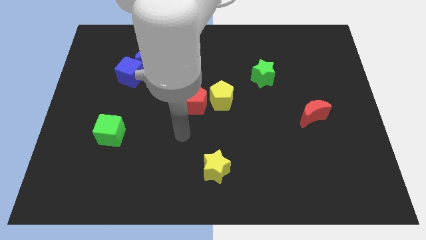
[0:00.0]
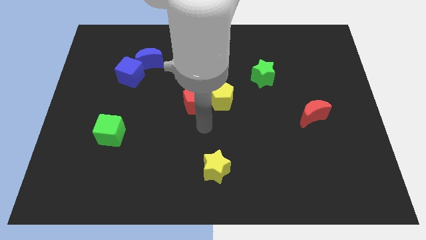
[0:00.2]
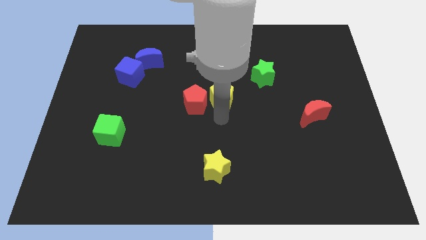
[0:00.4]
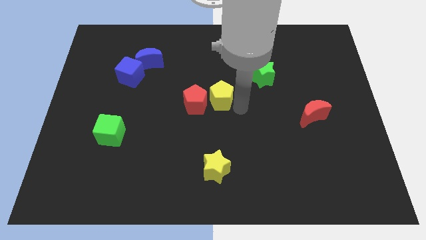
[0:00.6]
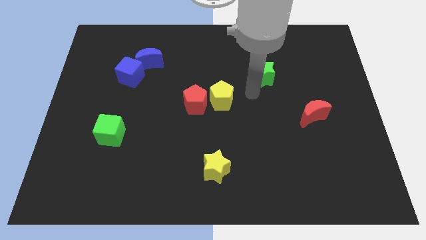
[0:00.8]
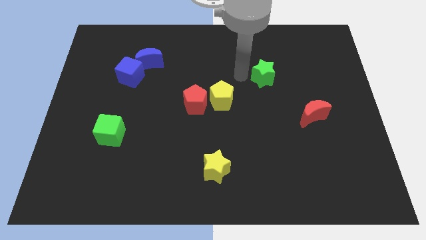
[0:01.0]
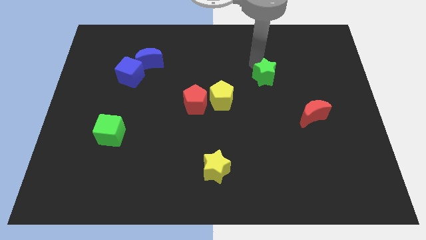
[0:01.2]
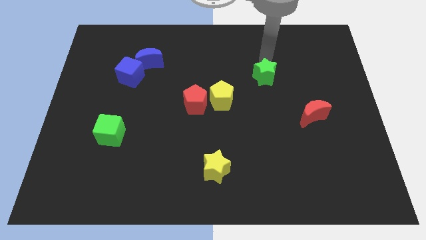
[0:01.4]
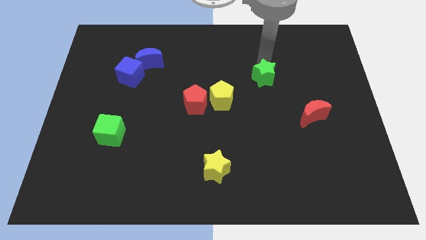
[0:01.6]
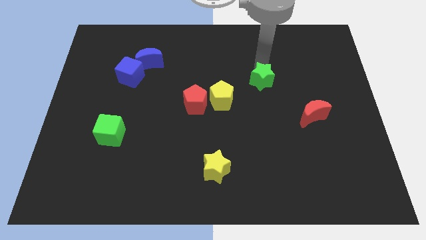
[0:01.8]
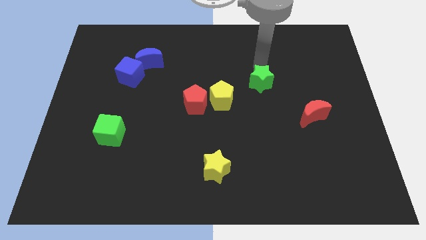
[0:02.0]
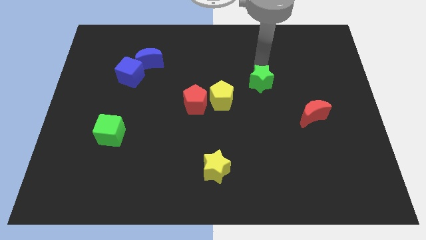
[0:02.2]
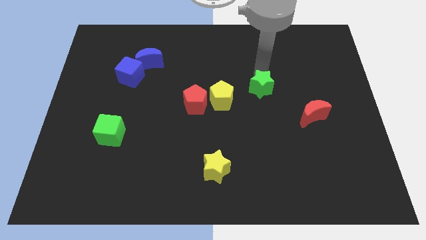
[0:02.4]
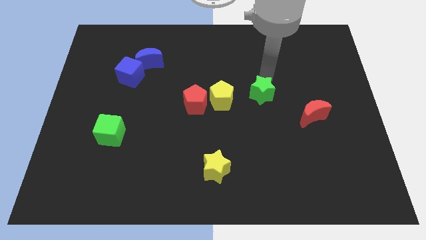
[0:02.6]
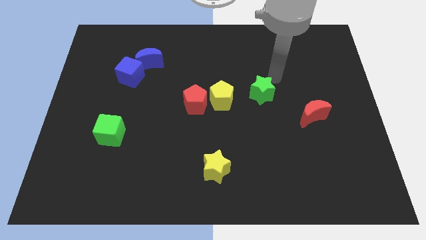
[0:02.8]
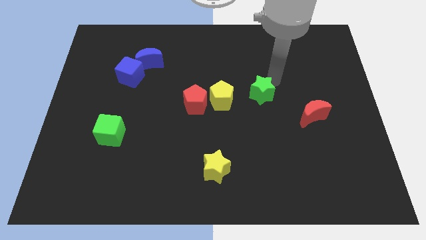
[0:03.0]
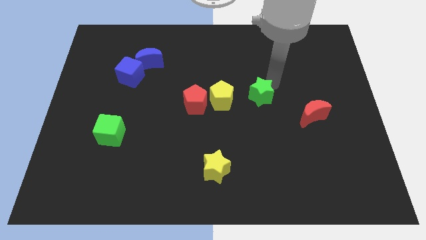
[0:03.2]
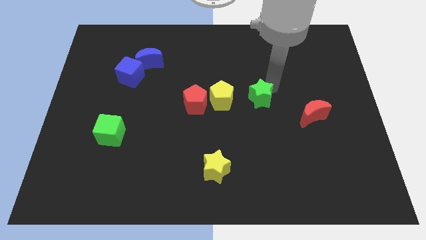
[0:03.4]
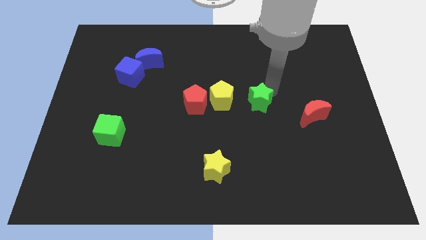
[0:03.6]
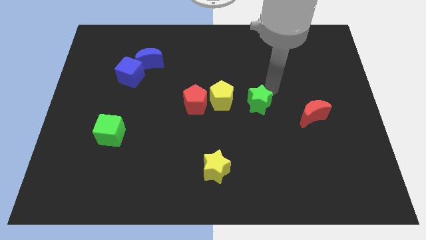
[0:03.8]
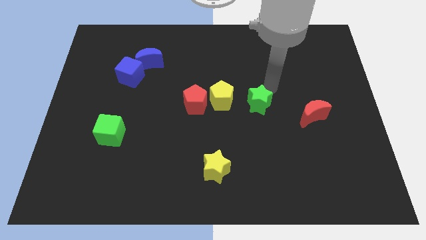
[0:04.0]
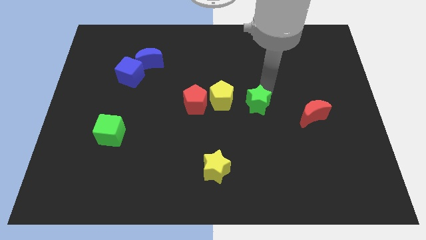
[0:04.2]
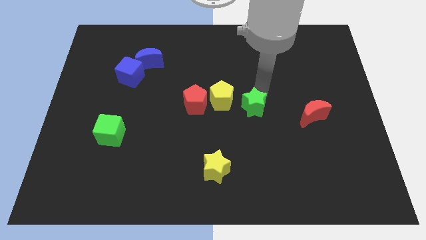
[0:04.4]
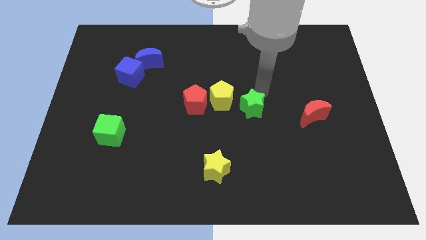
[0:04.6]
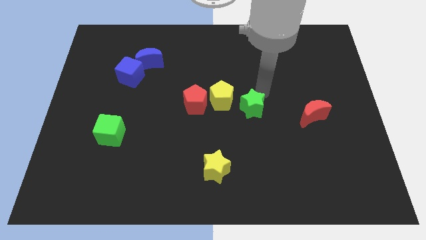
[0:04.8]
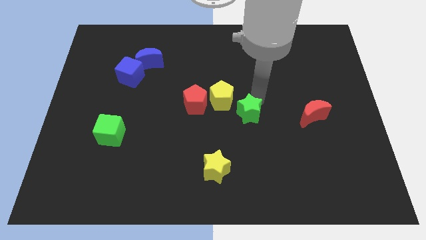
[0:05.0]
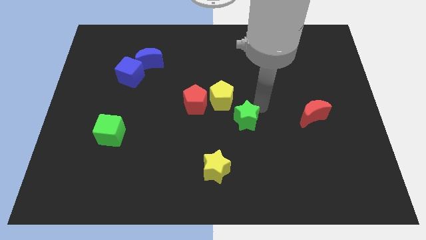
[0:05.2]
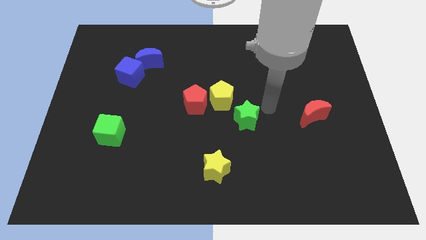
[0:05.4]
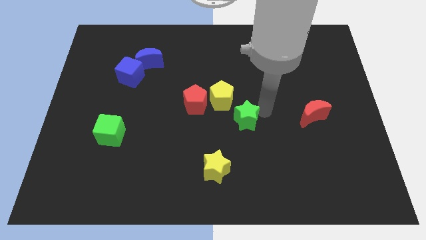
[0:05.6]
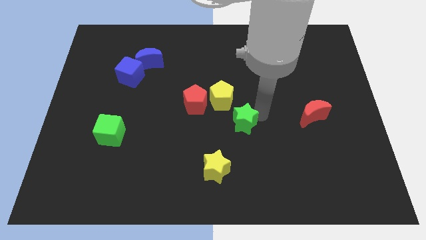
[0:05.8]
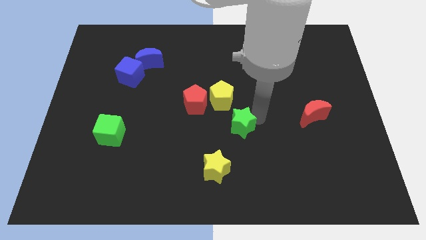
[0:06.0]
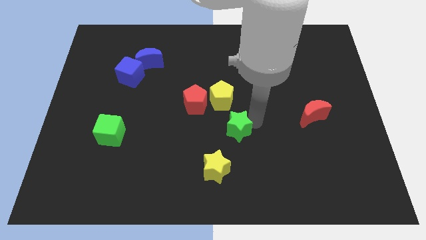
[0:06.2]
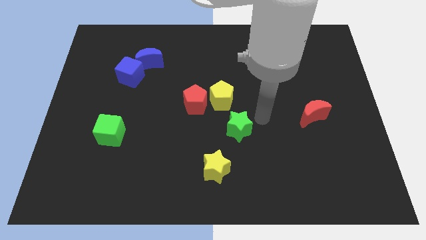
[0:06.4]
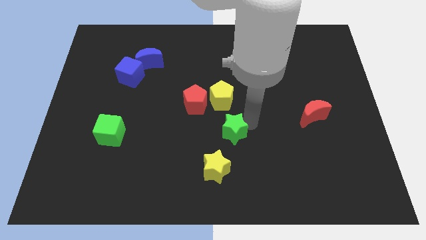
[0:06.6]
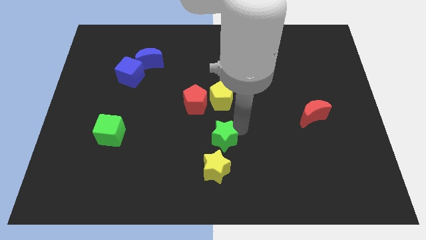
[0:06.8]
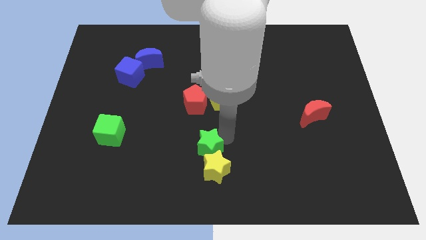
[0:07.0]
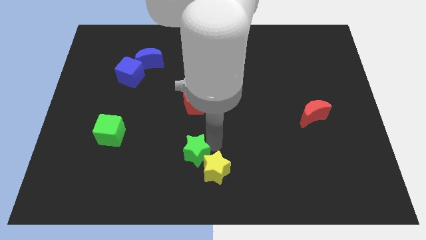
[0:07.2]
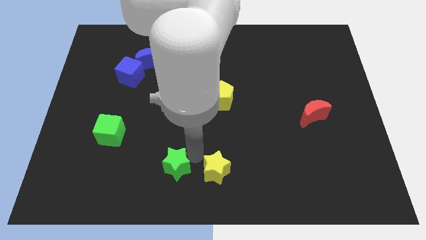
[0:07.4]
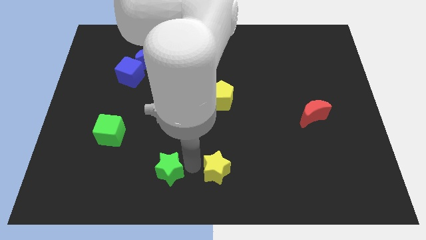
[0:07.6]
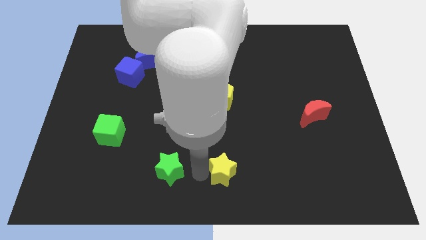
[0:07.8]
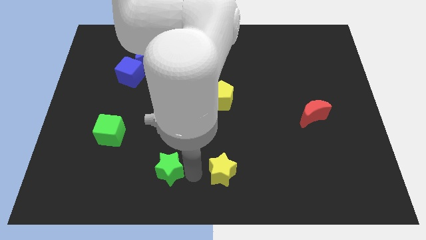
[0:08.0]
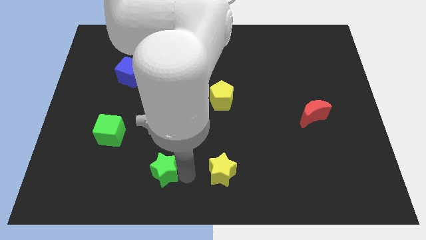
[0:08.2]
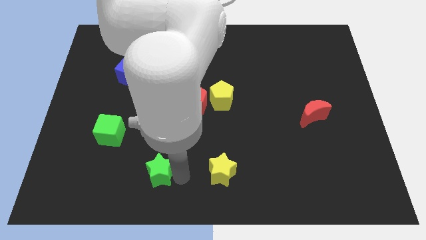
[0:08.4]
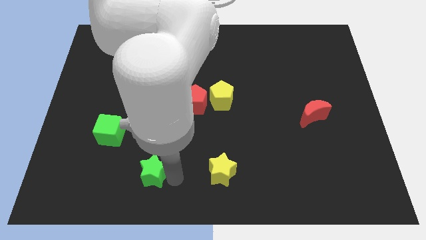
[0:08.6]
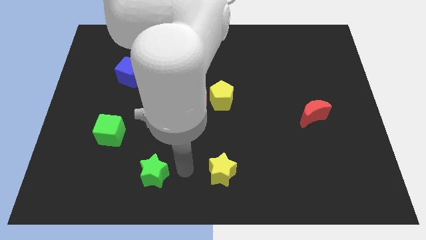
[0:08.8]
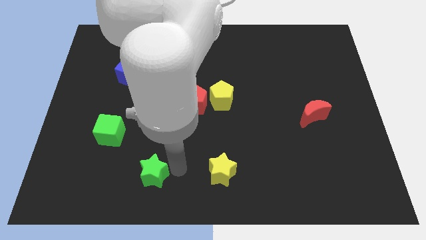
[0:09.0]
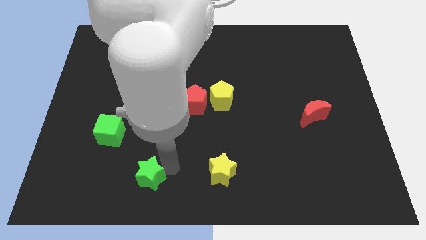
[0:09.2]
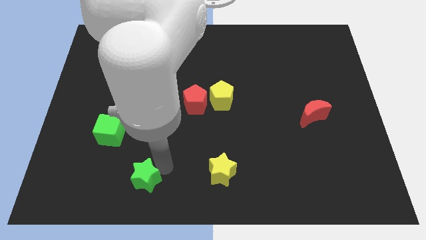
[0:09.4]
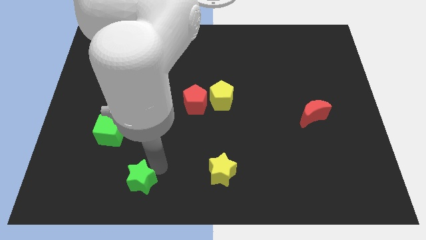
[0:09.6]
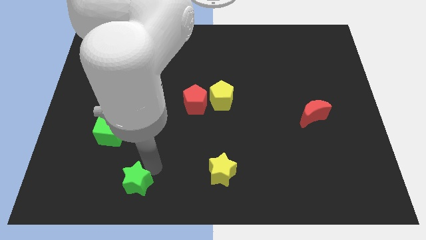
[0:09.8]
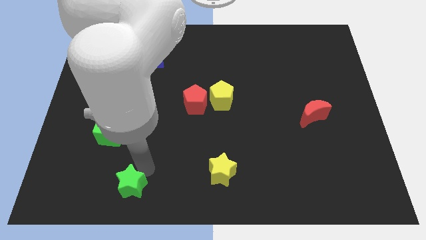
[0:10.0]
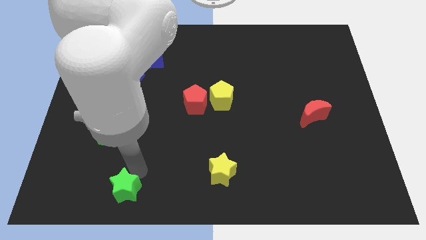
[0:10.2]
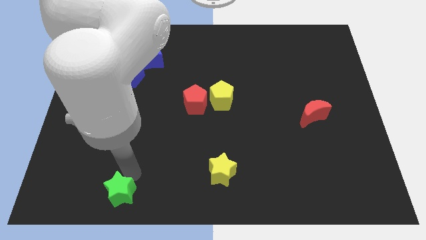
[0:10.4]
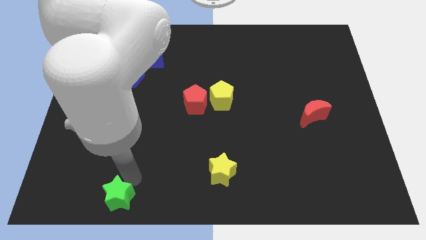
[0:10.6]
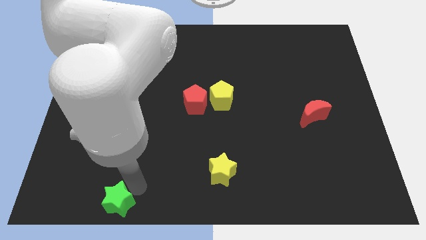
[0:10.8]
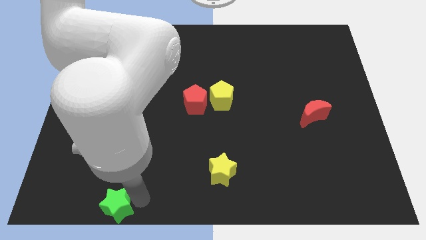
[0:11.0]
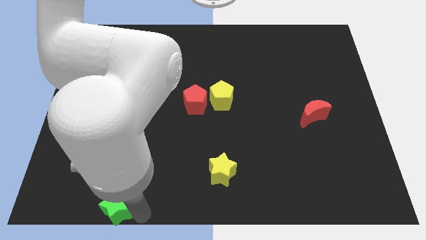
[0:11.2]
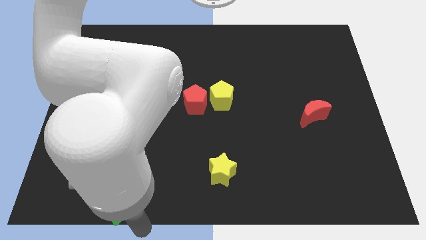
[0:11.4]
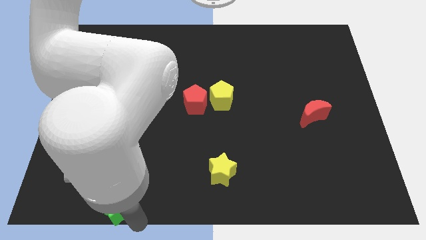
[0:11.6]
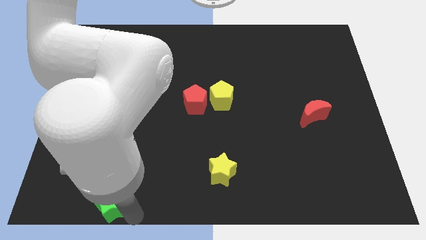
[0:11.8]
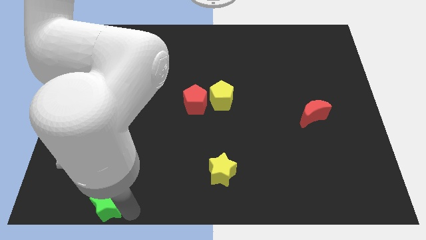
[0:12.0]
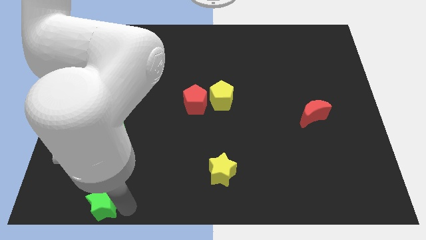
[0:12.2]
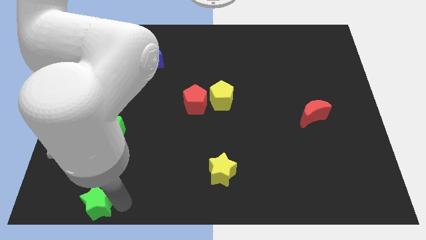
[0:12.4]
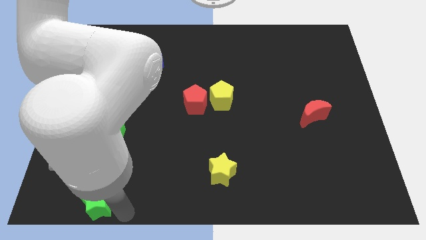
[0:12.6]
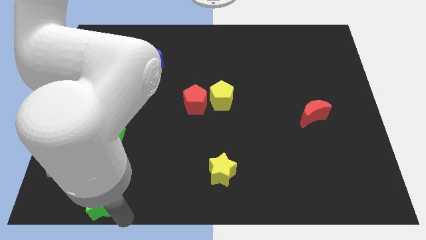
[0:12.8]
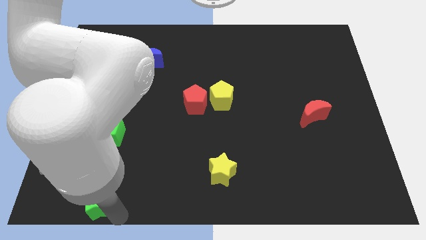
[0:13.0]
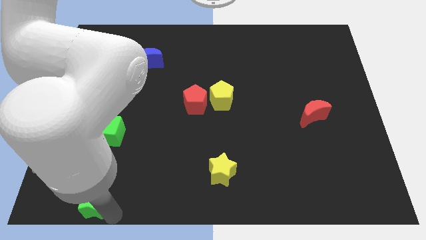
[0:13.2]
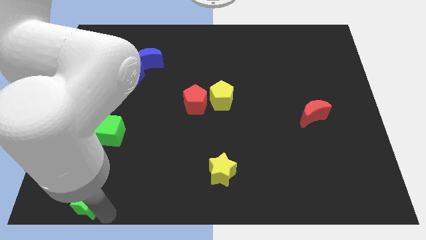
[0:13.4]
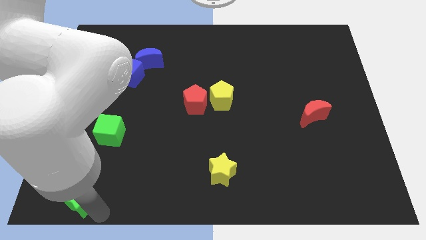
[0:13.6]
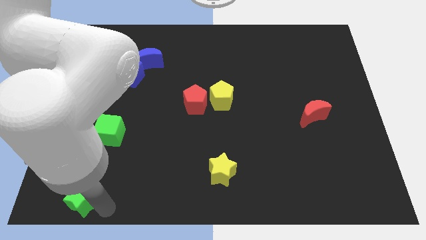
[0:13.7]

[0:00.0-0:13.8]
move the green star to the bottom left

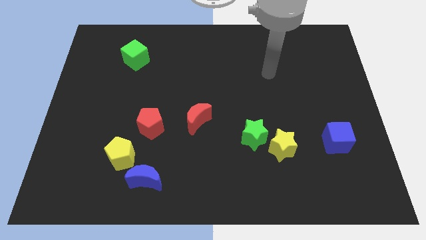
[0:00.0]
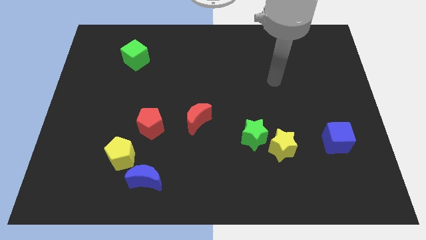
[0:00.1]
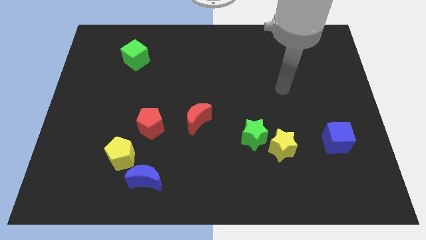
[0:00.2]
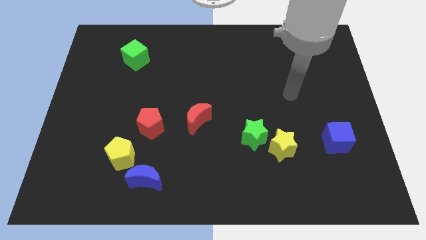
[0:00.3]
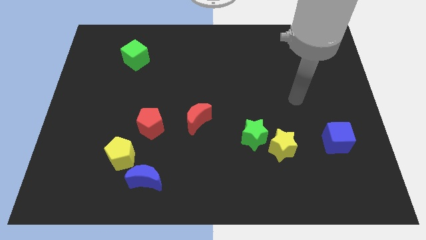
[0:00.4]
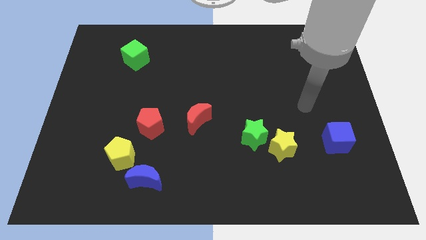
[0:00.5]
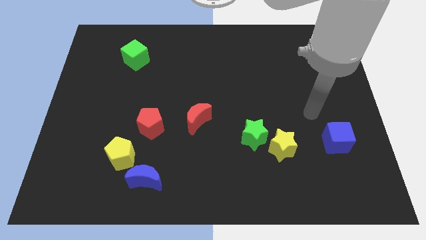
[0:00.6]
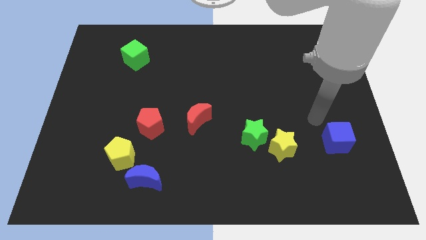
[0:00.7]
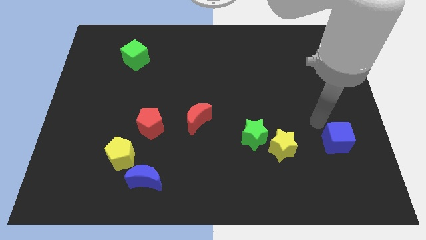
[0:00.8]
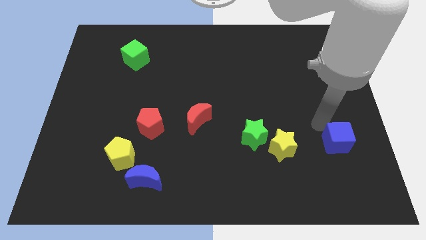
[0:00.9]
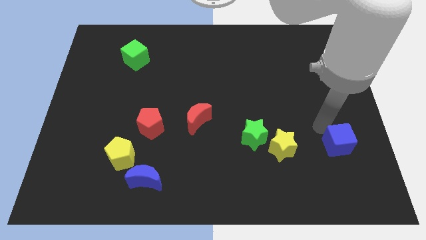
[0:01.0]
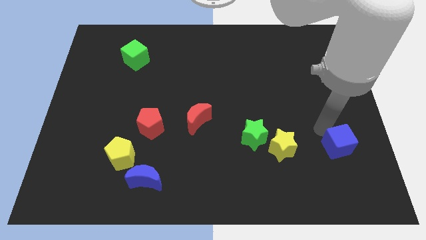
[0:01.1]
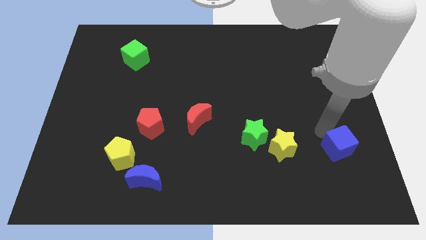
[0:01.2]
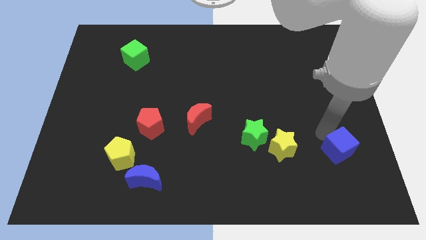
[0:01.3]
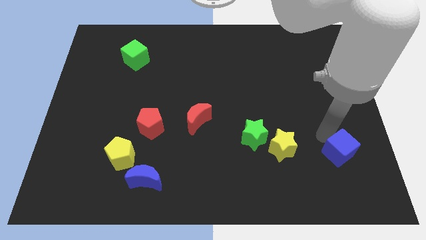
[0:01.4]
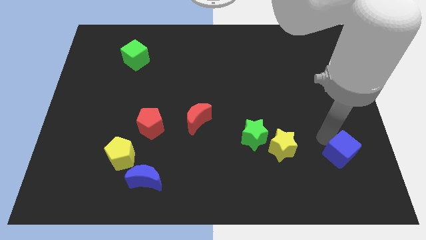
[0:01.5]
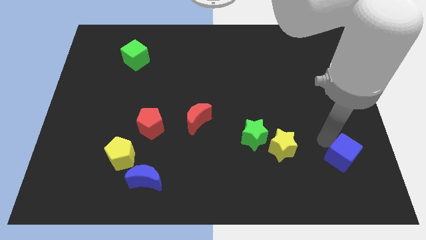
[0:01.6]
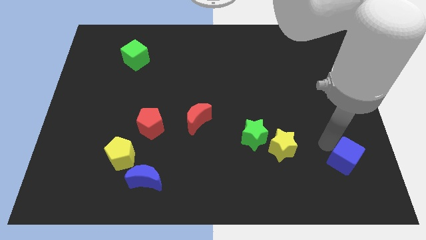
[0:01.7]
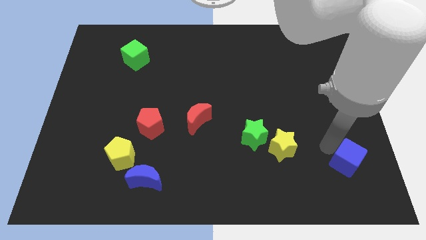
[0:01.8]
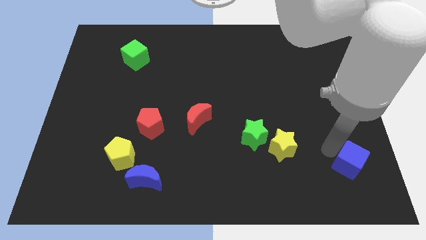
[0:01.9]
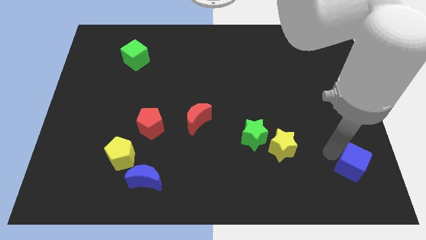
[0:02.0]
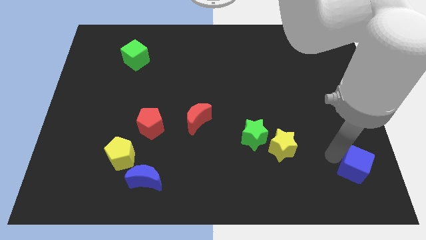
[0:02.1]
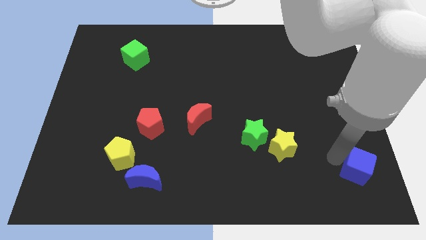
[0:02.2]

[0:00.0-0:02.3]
push the blue cube to the bottom right
